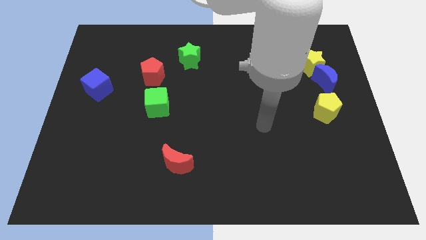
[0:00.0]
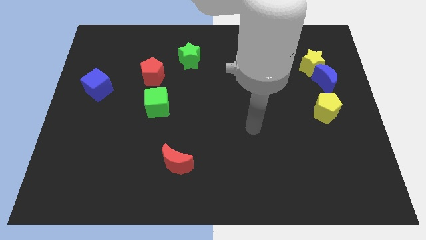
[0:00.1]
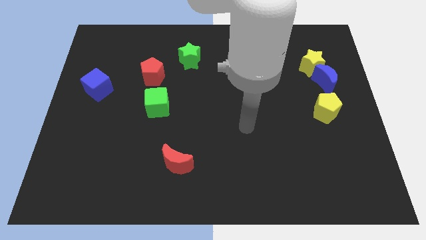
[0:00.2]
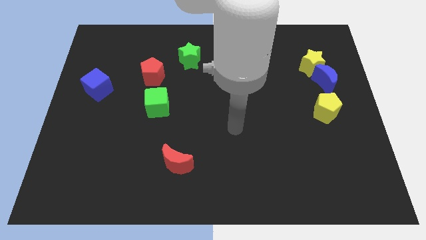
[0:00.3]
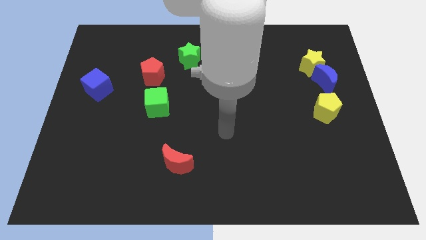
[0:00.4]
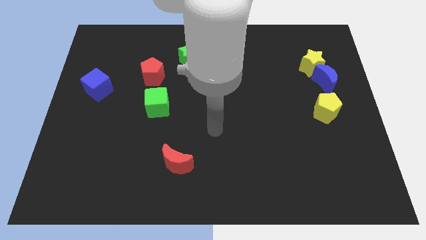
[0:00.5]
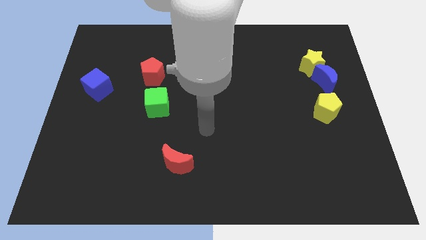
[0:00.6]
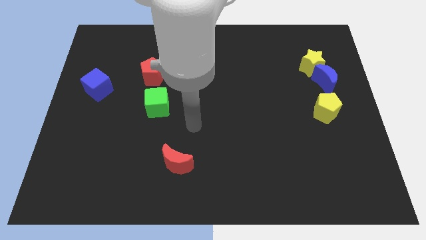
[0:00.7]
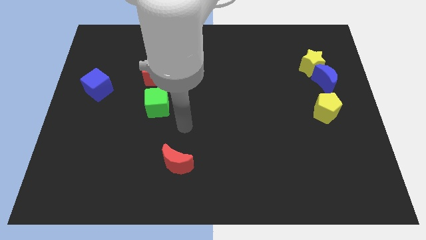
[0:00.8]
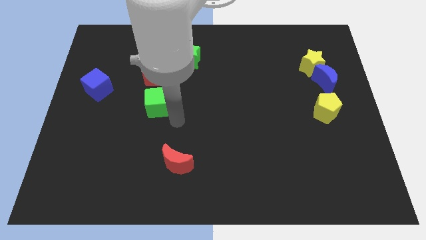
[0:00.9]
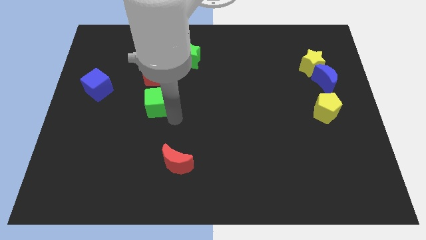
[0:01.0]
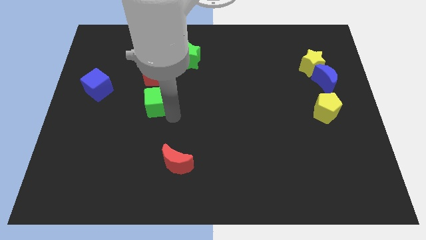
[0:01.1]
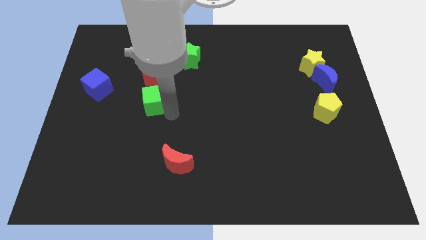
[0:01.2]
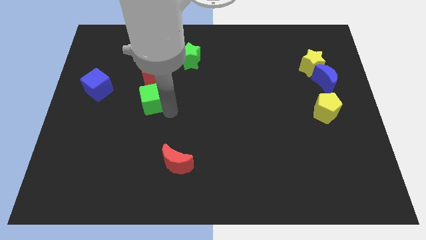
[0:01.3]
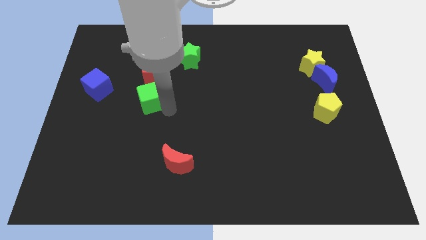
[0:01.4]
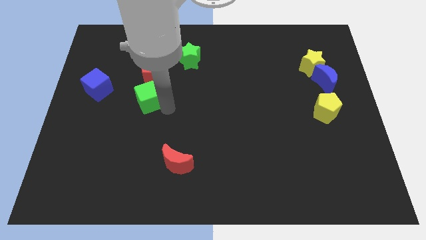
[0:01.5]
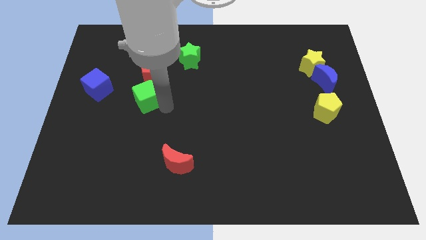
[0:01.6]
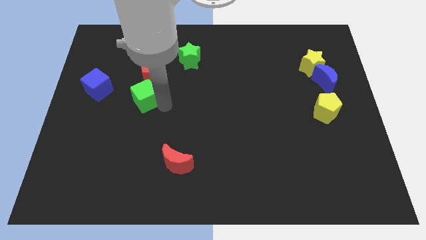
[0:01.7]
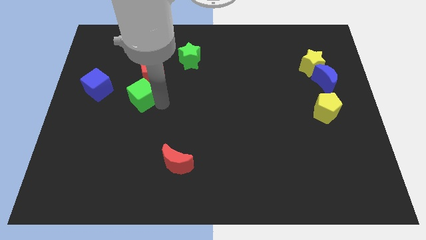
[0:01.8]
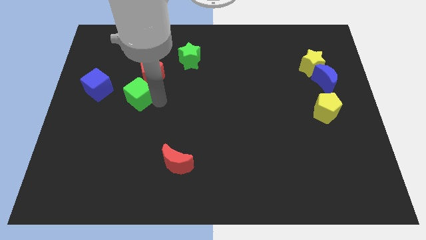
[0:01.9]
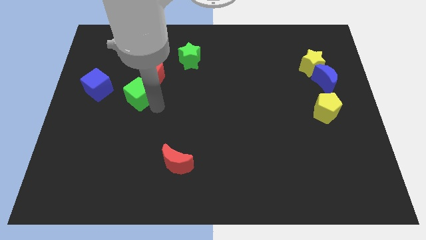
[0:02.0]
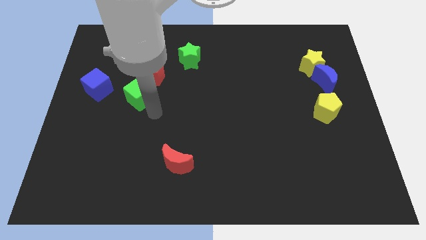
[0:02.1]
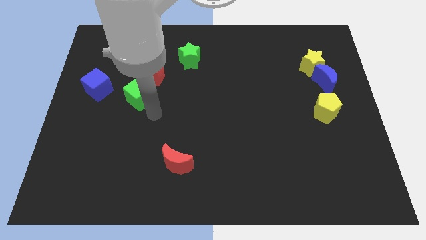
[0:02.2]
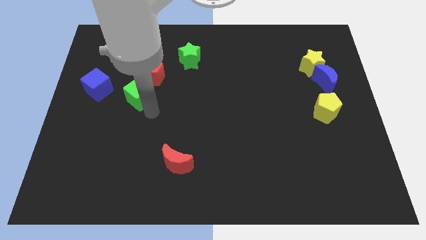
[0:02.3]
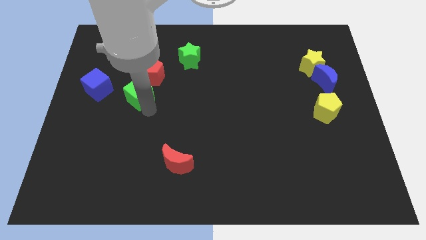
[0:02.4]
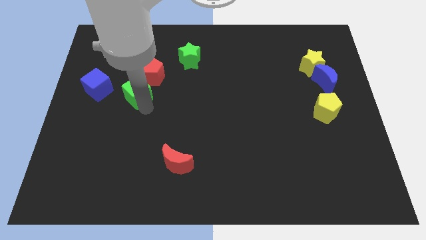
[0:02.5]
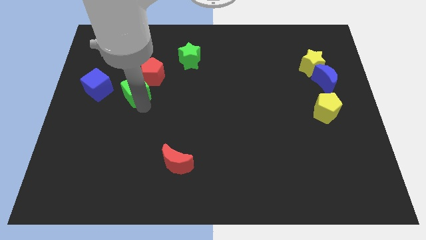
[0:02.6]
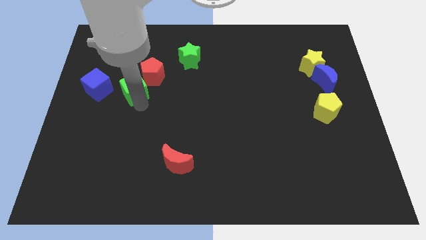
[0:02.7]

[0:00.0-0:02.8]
push the green cube a little upwards and to the left

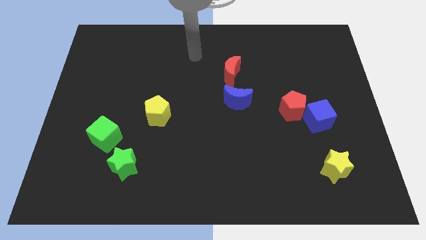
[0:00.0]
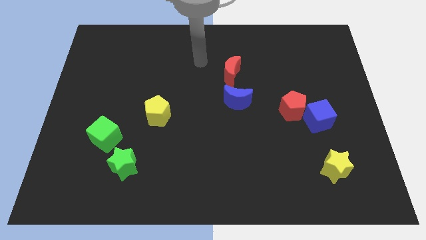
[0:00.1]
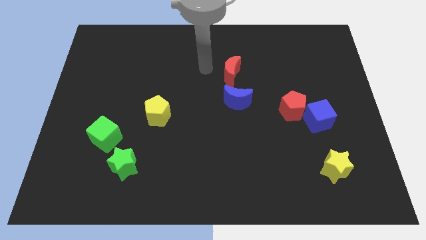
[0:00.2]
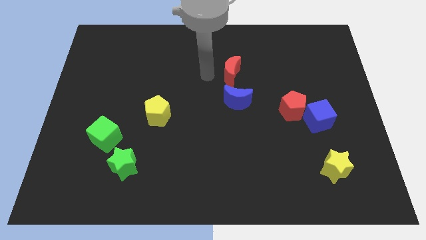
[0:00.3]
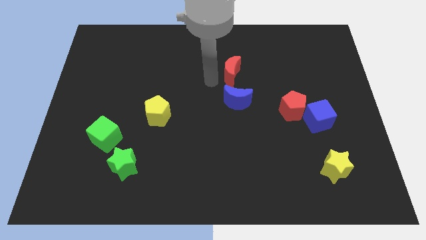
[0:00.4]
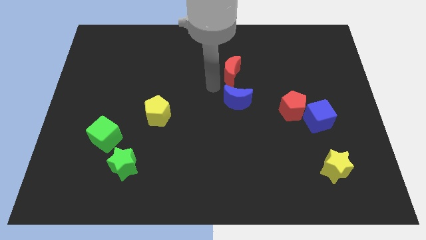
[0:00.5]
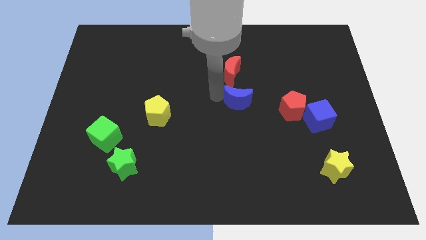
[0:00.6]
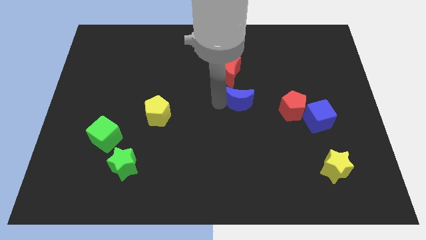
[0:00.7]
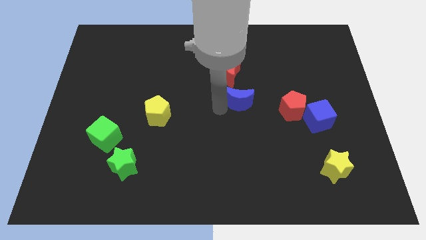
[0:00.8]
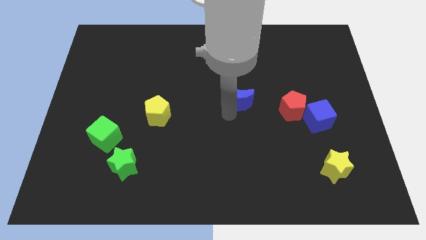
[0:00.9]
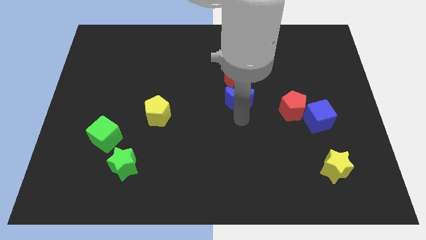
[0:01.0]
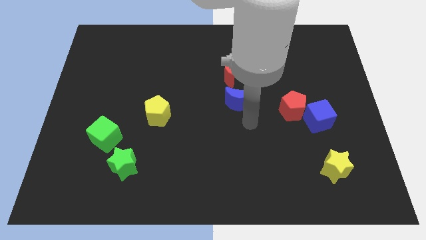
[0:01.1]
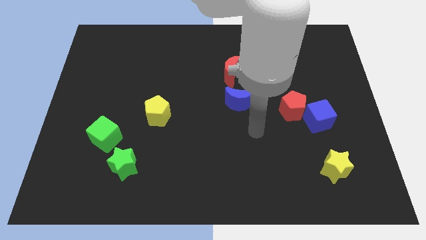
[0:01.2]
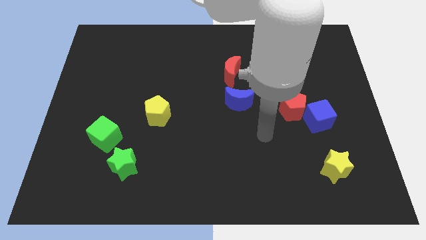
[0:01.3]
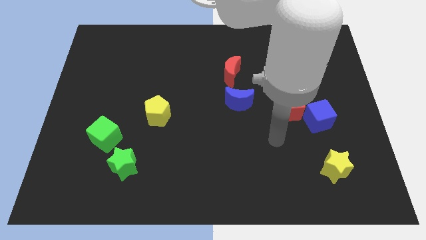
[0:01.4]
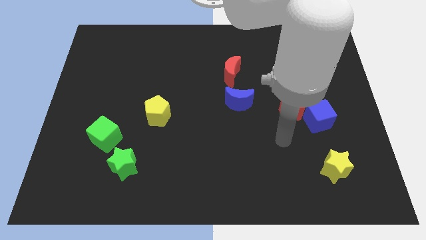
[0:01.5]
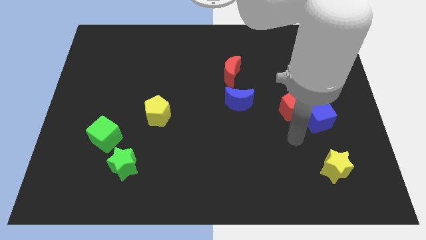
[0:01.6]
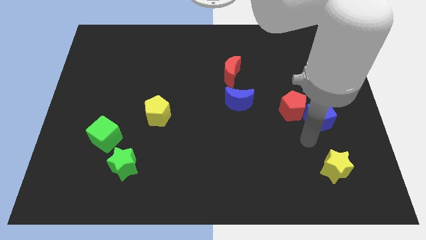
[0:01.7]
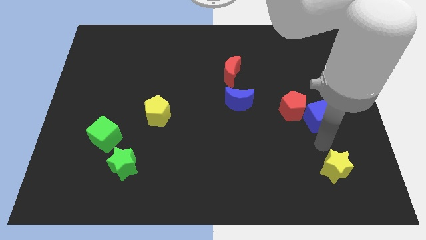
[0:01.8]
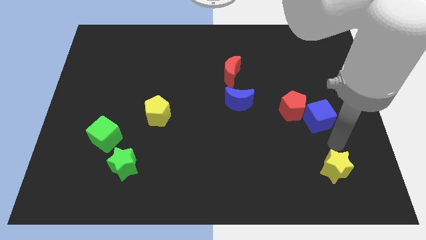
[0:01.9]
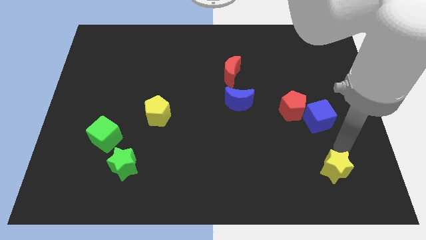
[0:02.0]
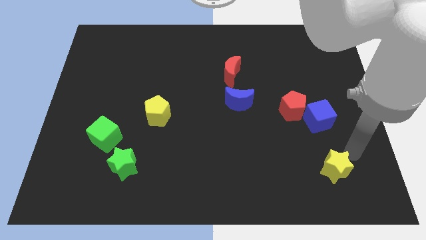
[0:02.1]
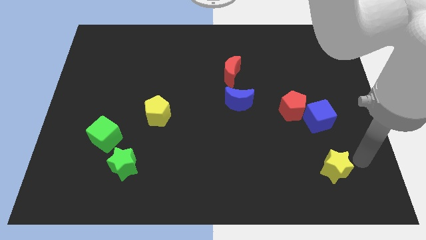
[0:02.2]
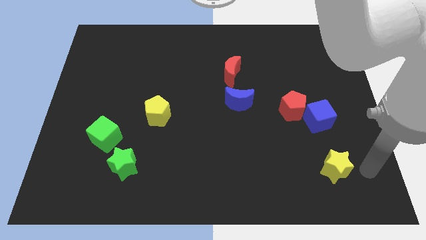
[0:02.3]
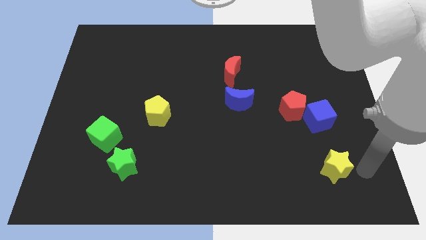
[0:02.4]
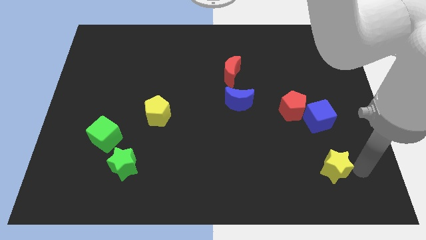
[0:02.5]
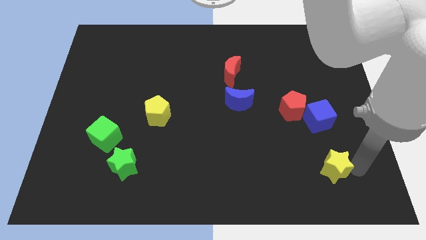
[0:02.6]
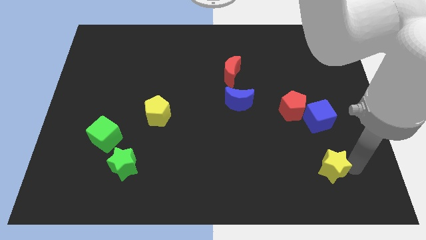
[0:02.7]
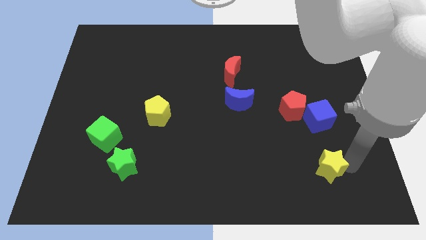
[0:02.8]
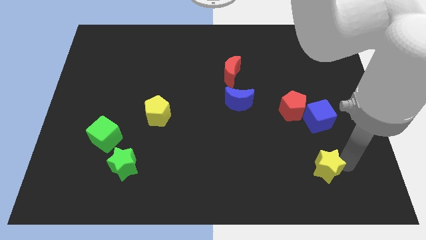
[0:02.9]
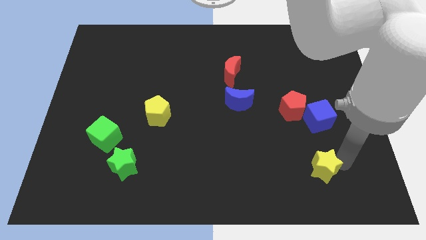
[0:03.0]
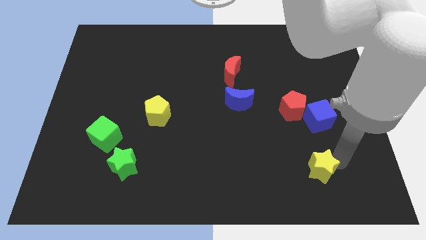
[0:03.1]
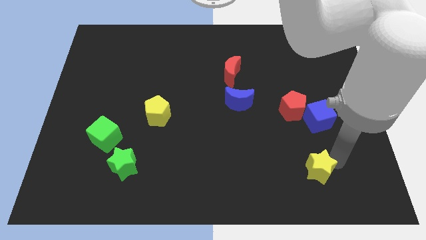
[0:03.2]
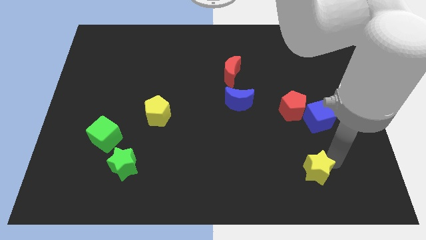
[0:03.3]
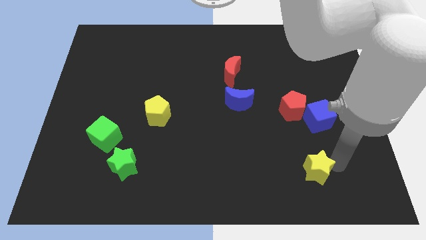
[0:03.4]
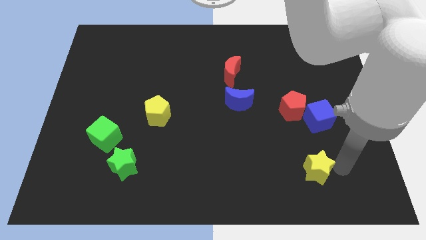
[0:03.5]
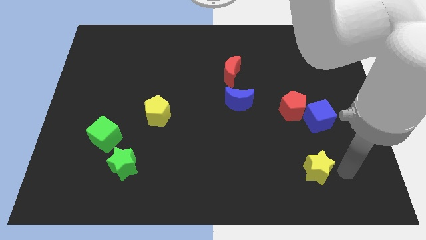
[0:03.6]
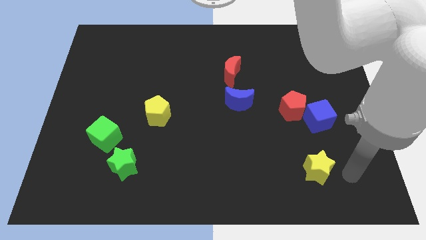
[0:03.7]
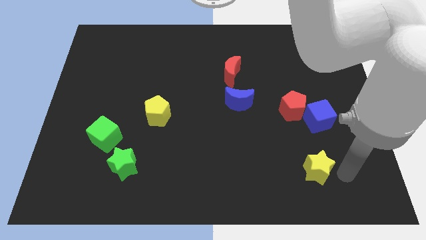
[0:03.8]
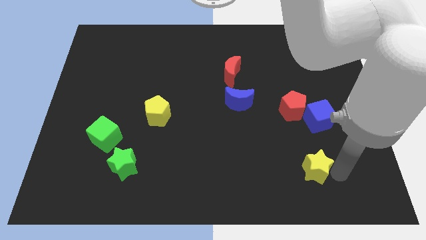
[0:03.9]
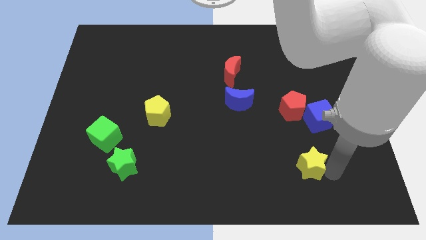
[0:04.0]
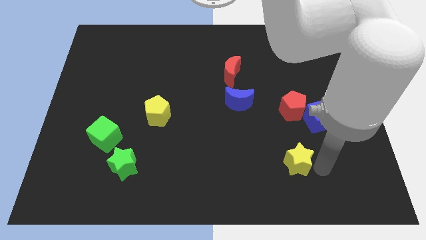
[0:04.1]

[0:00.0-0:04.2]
move the yellow star somewhat to the left

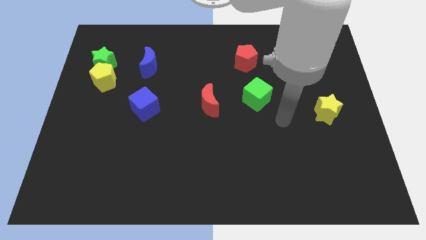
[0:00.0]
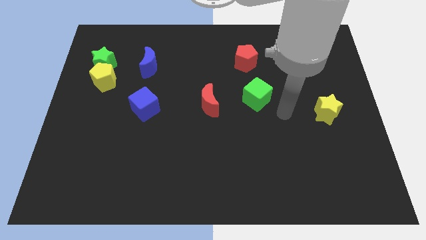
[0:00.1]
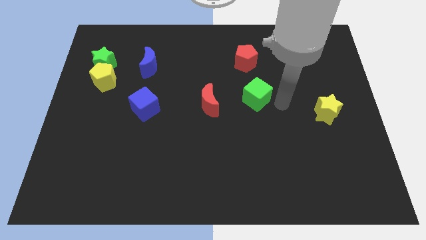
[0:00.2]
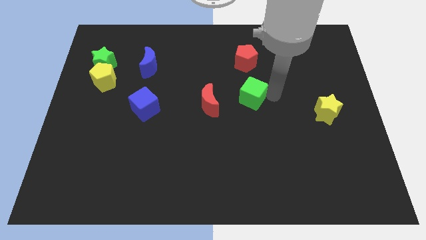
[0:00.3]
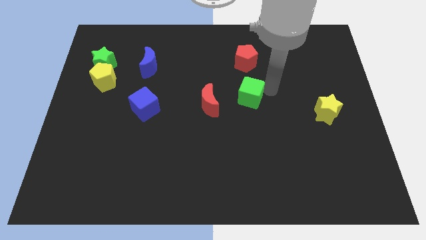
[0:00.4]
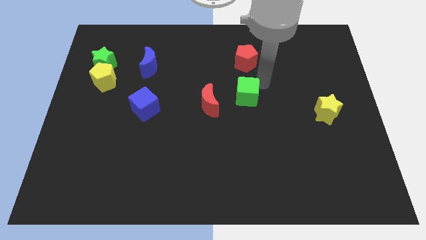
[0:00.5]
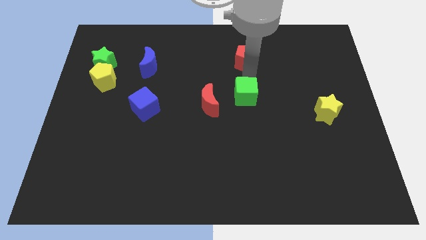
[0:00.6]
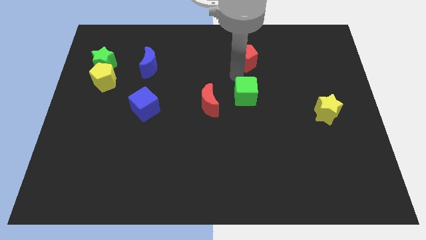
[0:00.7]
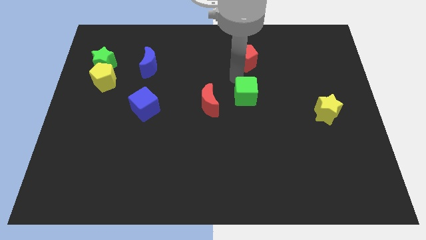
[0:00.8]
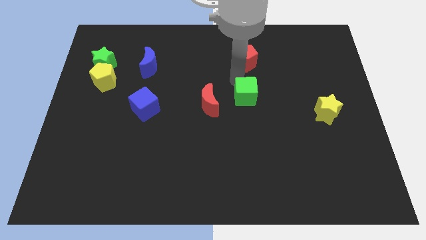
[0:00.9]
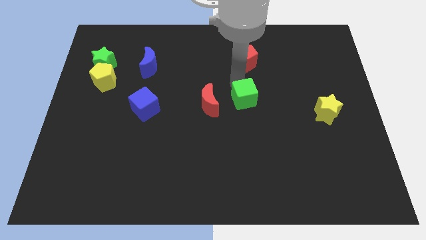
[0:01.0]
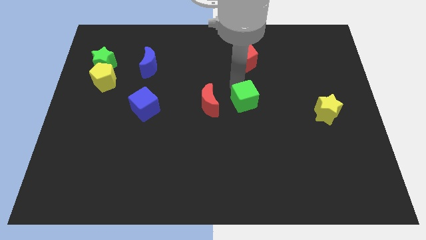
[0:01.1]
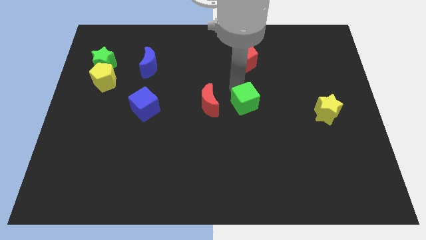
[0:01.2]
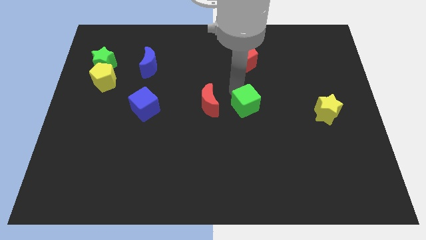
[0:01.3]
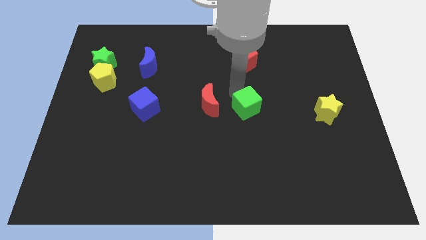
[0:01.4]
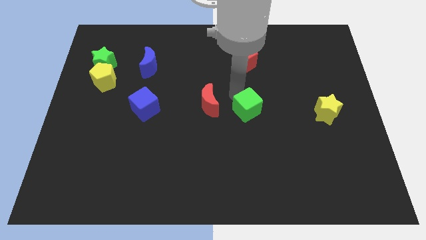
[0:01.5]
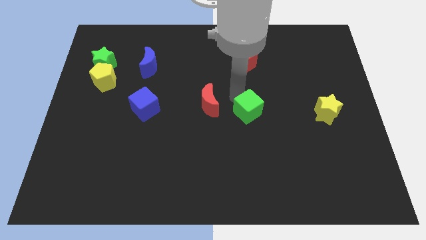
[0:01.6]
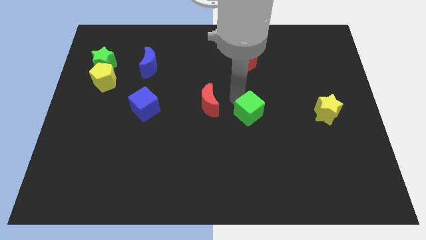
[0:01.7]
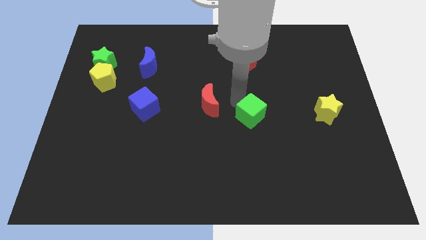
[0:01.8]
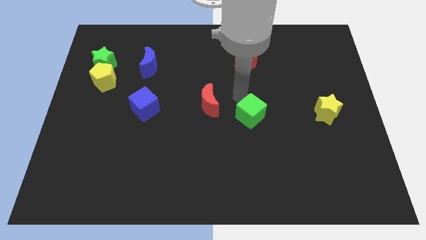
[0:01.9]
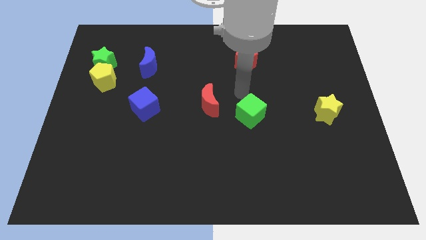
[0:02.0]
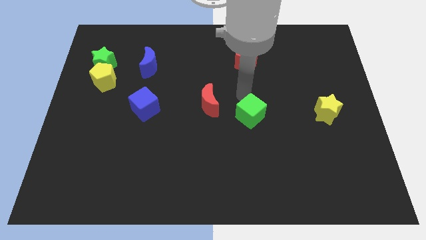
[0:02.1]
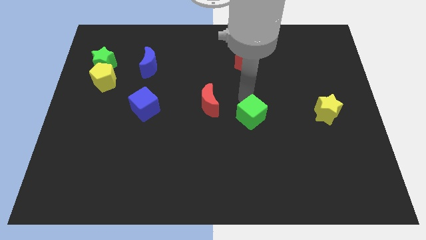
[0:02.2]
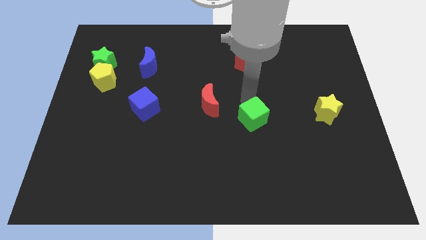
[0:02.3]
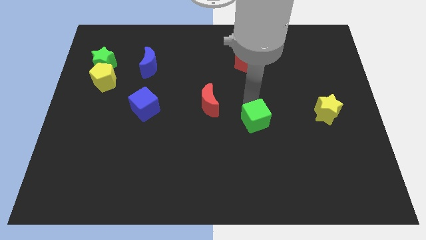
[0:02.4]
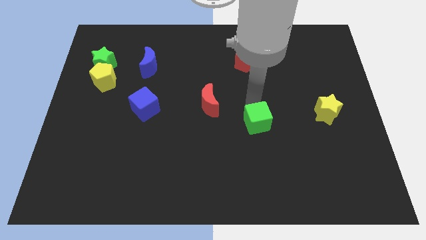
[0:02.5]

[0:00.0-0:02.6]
slightly move the green cube down
